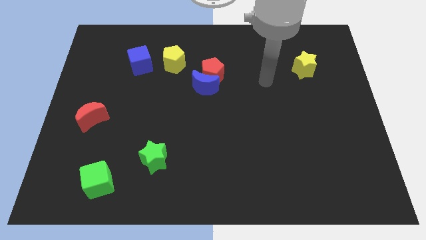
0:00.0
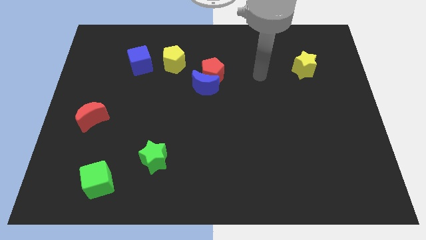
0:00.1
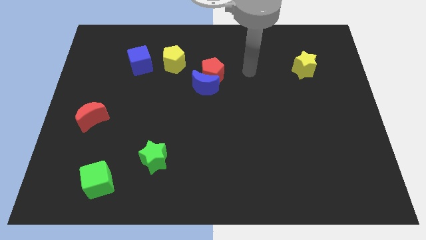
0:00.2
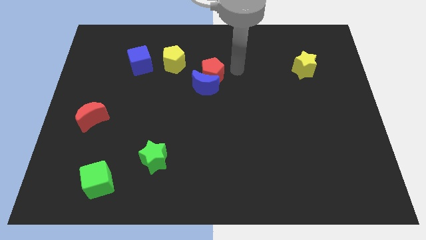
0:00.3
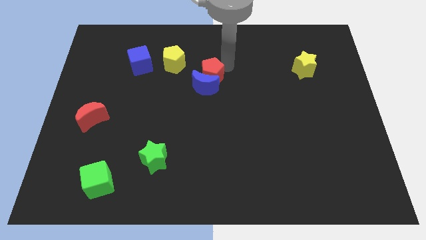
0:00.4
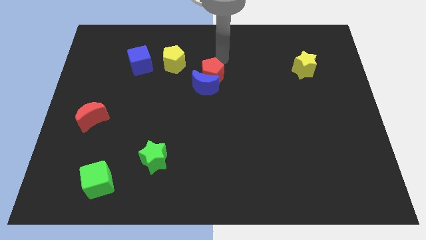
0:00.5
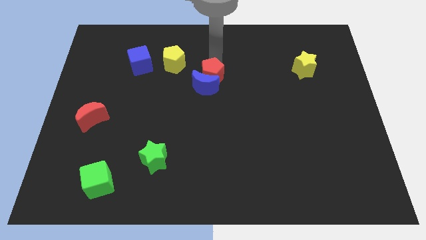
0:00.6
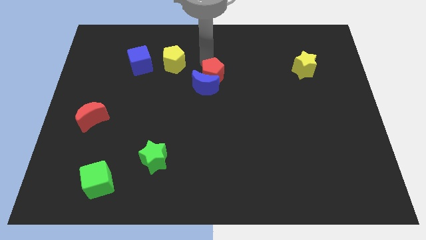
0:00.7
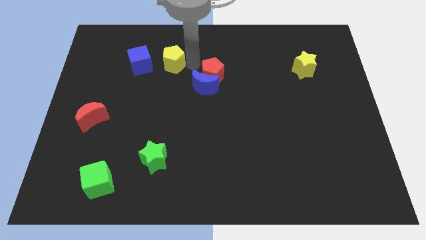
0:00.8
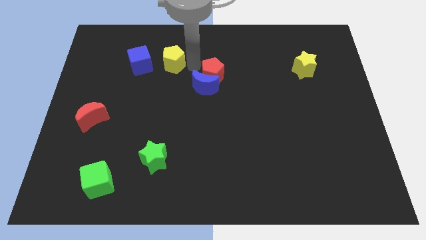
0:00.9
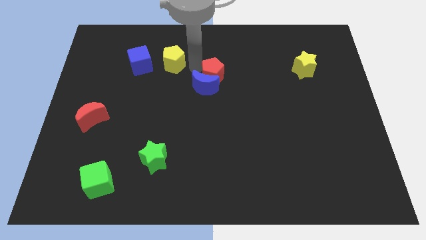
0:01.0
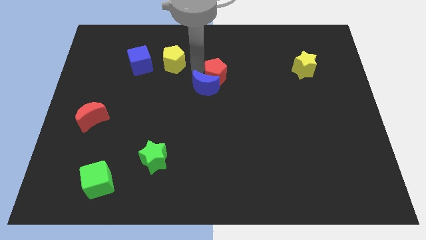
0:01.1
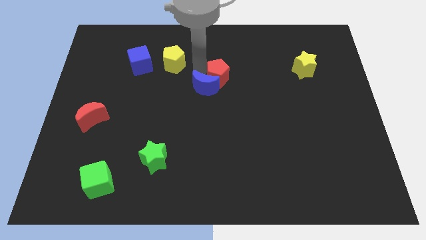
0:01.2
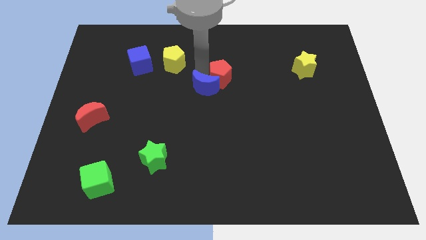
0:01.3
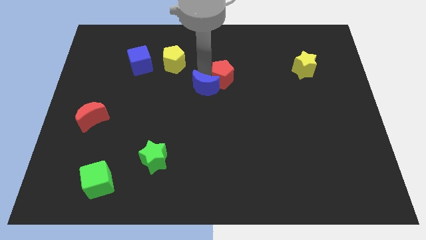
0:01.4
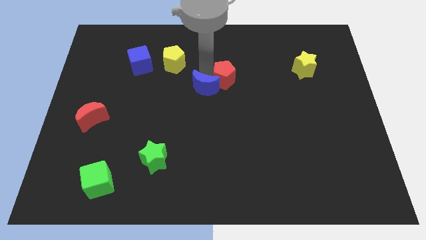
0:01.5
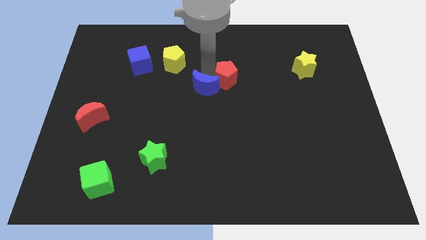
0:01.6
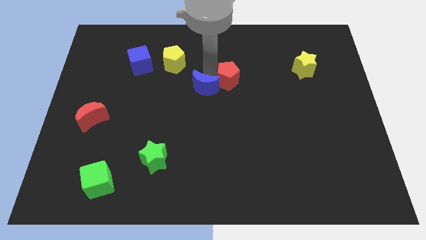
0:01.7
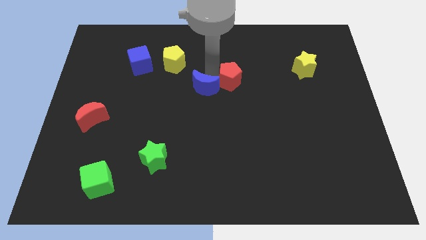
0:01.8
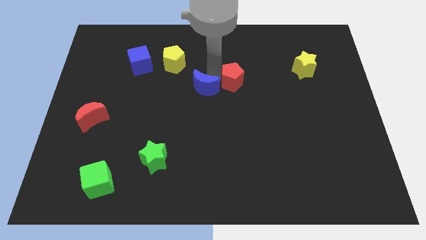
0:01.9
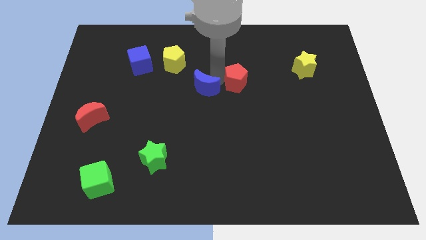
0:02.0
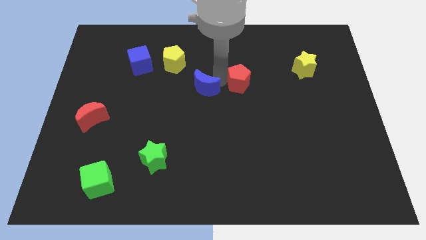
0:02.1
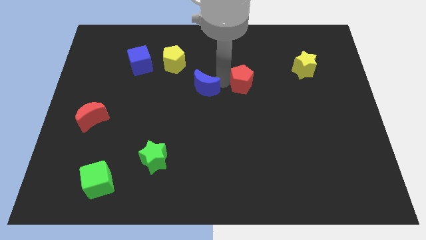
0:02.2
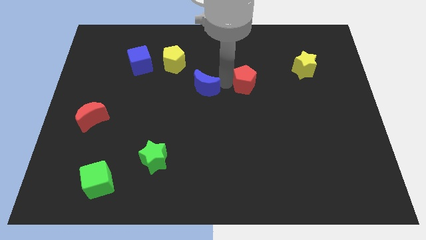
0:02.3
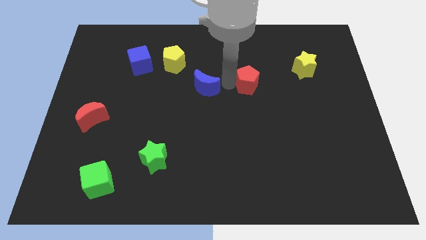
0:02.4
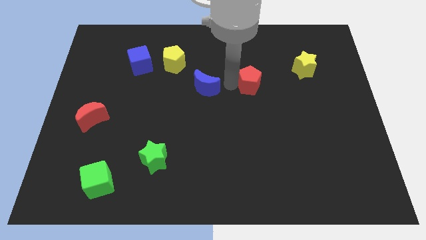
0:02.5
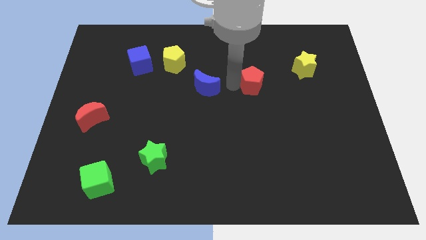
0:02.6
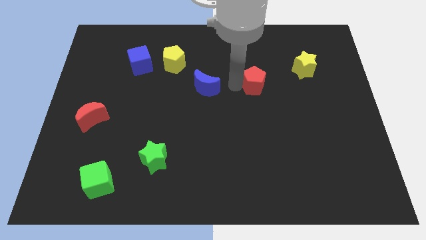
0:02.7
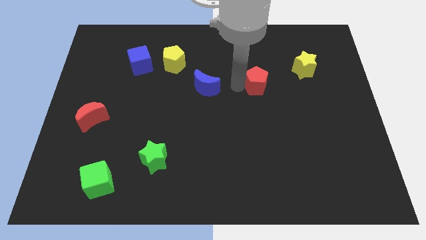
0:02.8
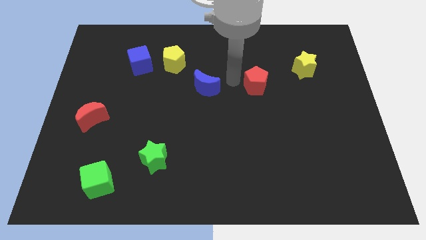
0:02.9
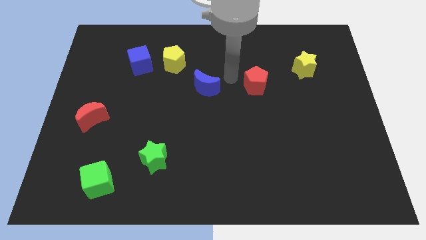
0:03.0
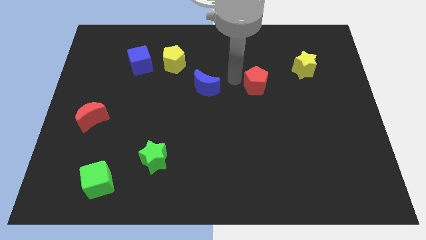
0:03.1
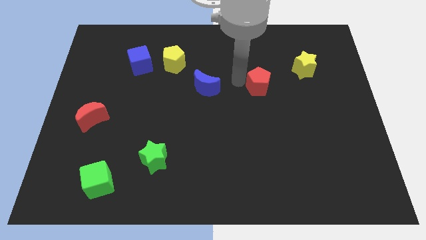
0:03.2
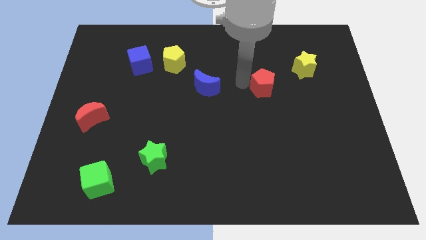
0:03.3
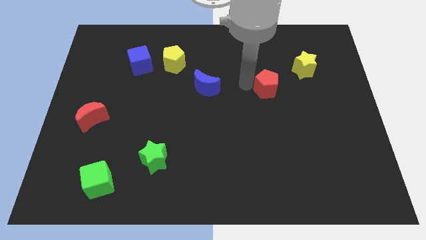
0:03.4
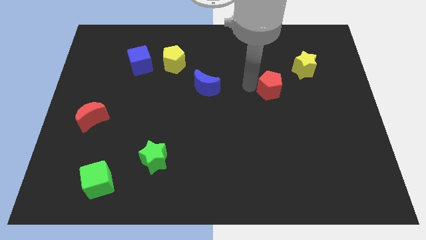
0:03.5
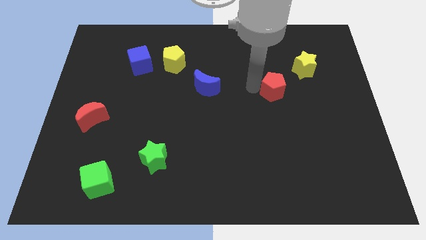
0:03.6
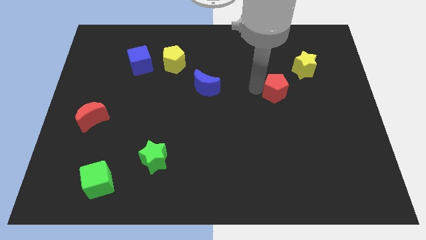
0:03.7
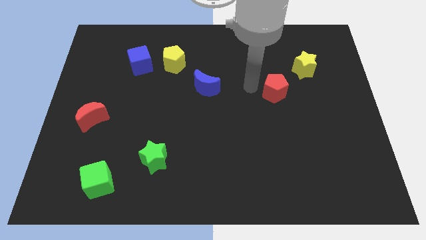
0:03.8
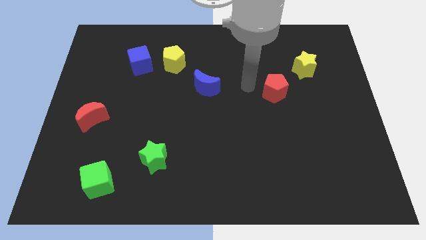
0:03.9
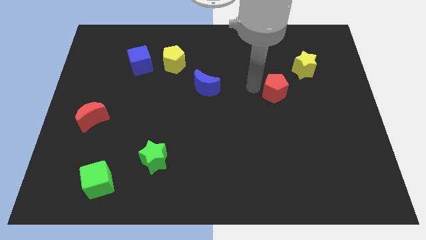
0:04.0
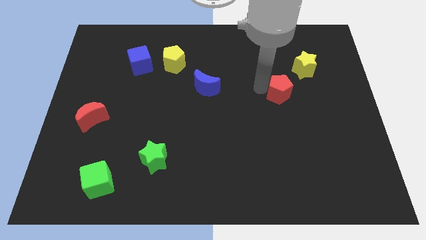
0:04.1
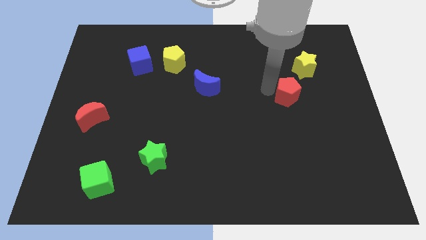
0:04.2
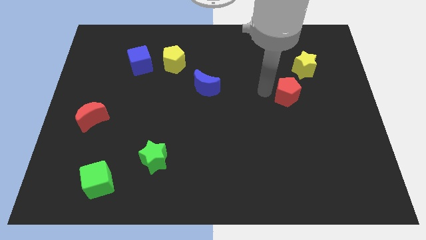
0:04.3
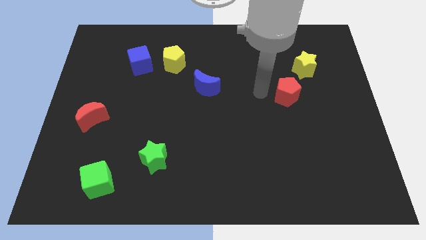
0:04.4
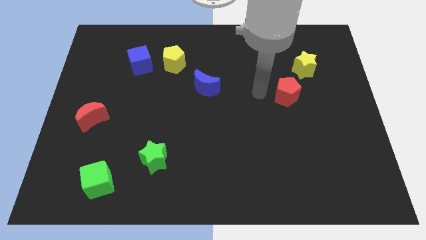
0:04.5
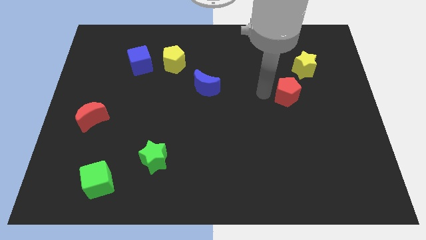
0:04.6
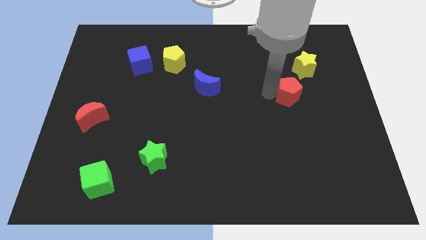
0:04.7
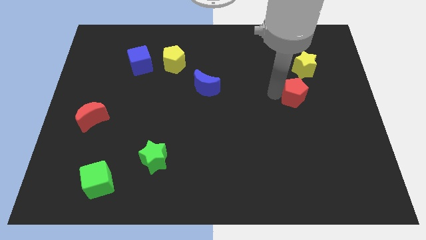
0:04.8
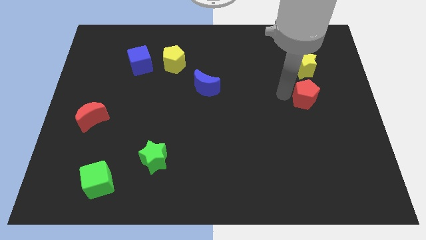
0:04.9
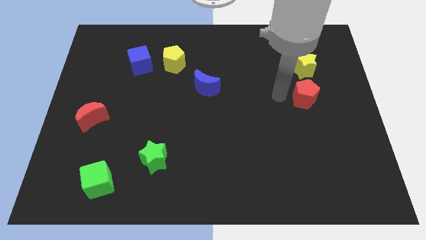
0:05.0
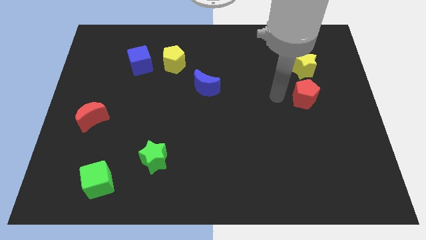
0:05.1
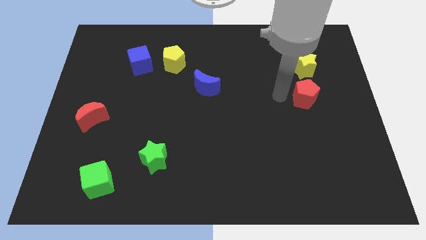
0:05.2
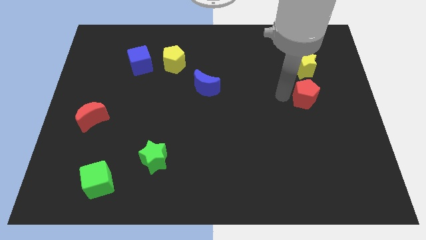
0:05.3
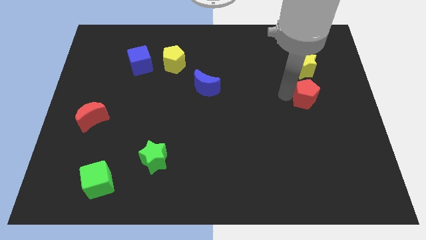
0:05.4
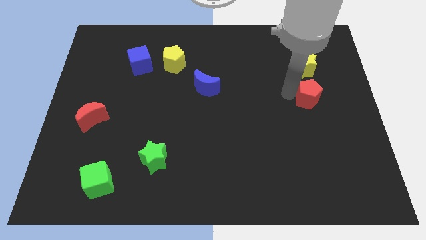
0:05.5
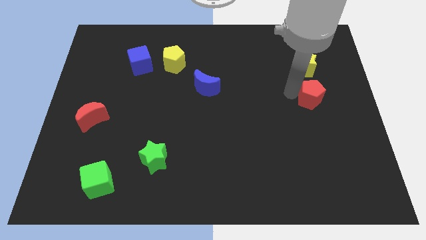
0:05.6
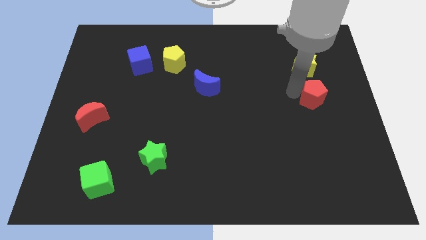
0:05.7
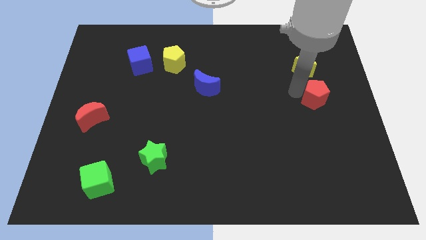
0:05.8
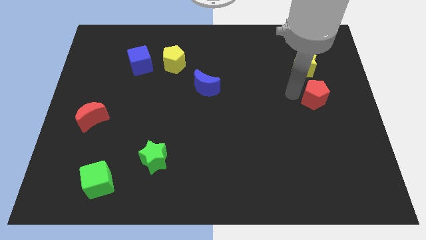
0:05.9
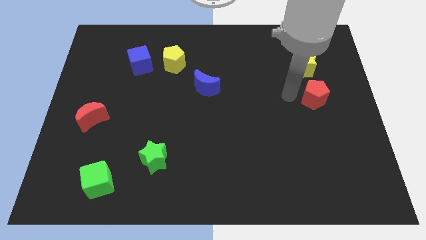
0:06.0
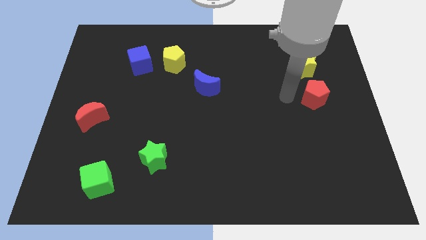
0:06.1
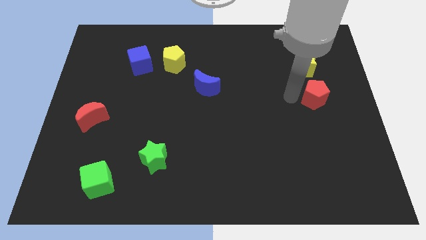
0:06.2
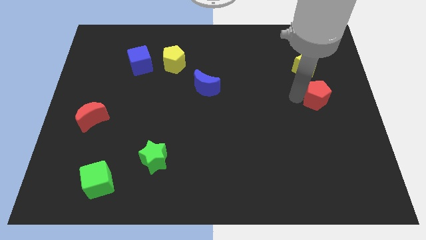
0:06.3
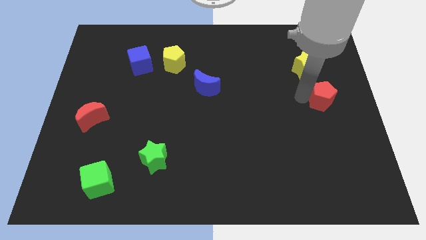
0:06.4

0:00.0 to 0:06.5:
move the red pentagon to the center right
